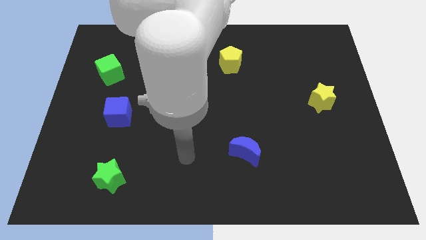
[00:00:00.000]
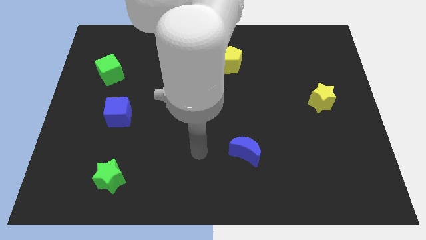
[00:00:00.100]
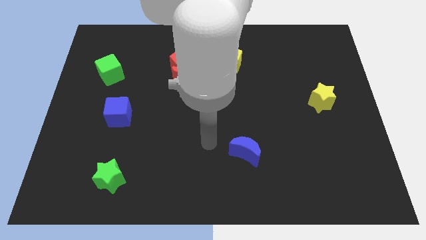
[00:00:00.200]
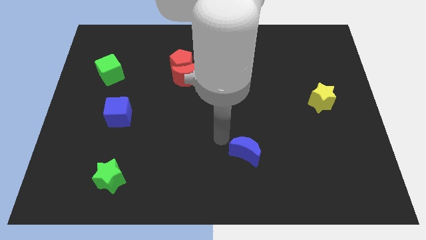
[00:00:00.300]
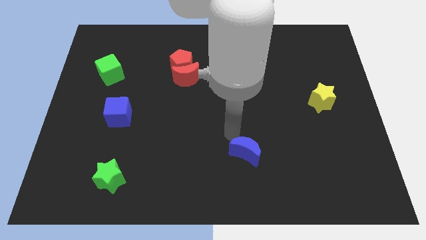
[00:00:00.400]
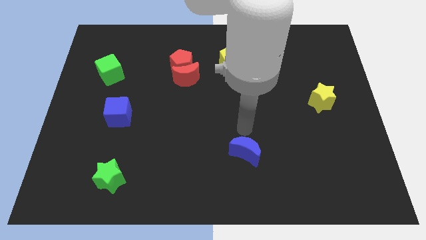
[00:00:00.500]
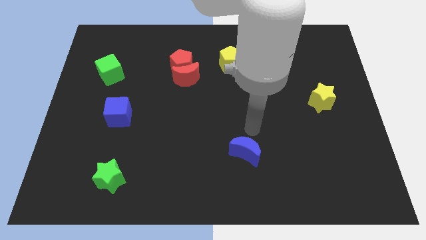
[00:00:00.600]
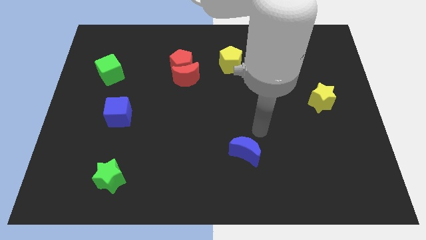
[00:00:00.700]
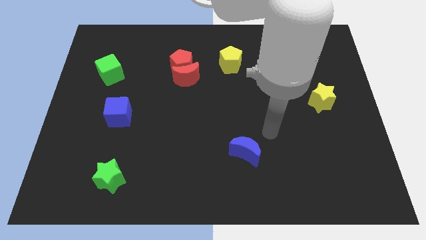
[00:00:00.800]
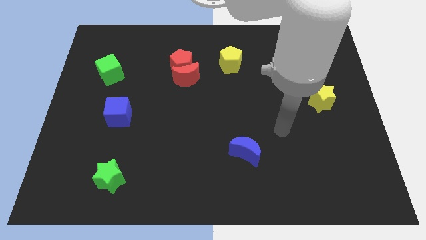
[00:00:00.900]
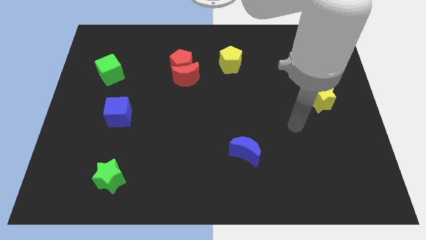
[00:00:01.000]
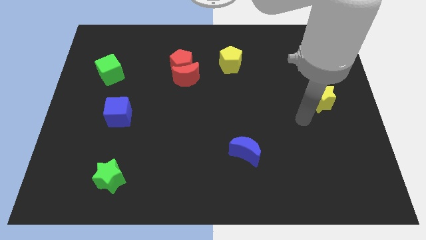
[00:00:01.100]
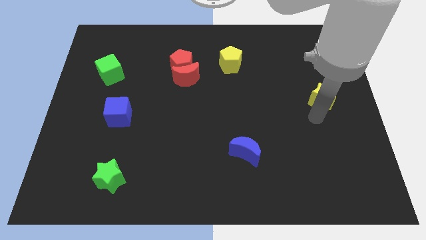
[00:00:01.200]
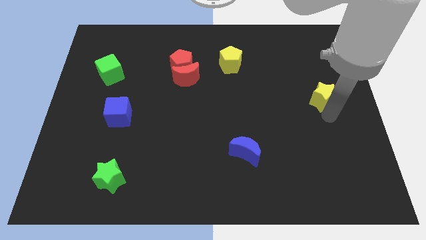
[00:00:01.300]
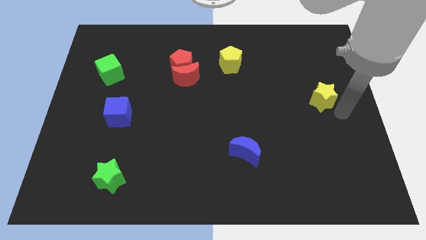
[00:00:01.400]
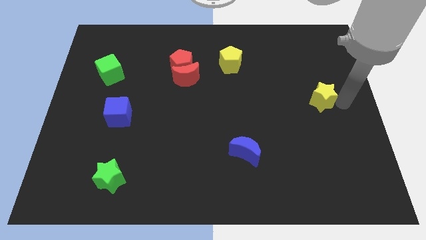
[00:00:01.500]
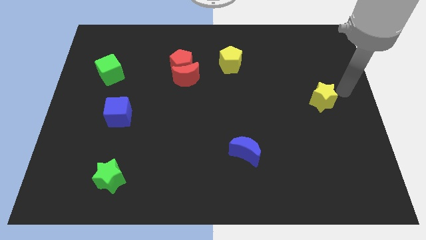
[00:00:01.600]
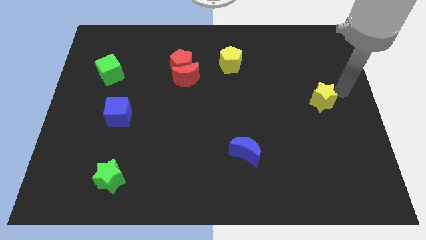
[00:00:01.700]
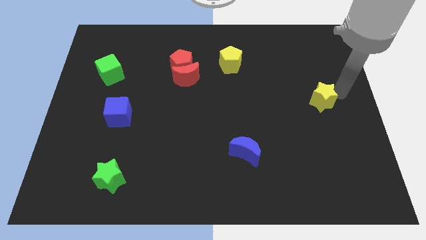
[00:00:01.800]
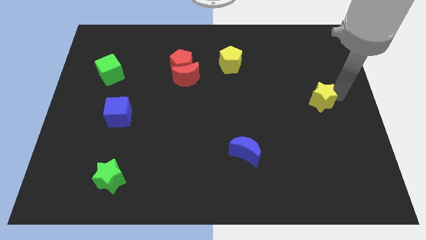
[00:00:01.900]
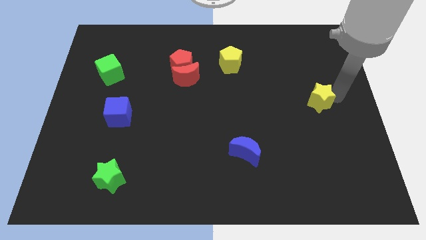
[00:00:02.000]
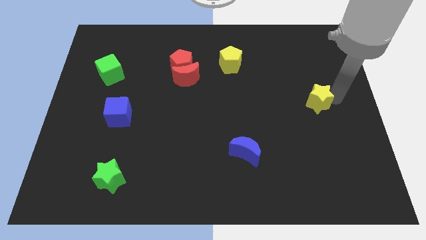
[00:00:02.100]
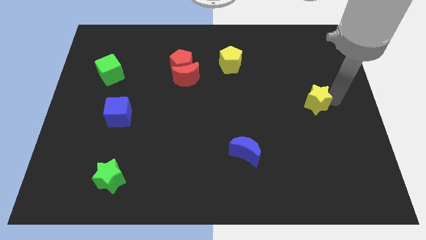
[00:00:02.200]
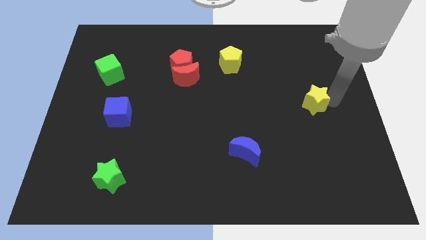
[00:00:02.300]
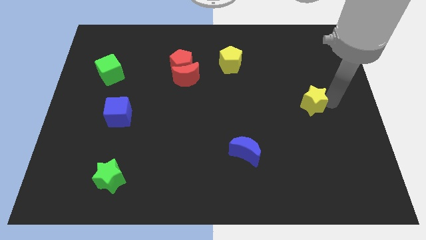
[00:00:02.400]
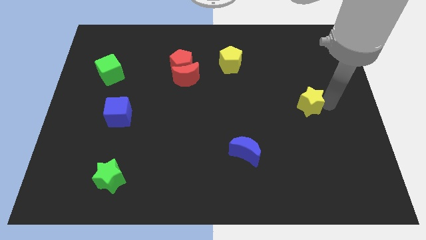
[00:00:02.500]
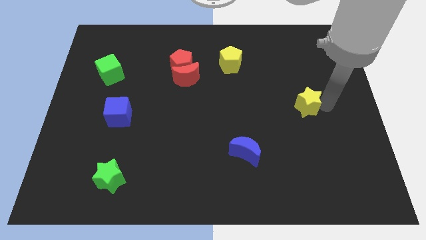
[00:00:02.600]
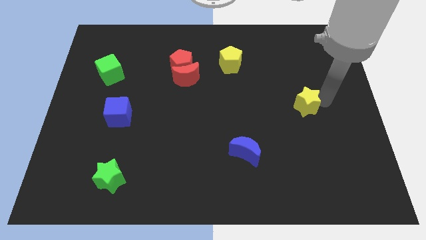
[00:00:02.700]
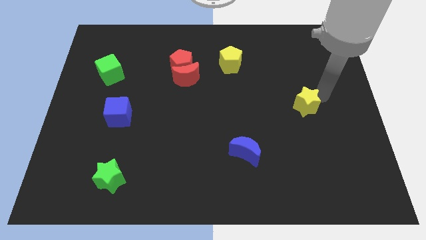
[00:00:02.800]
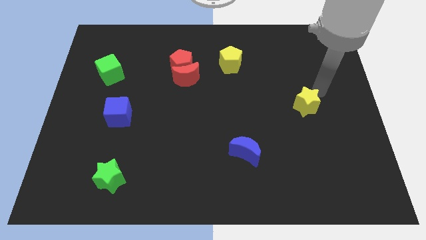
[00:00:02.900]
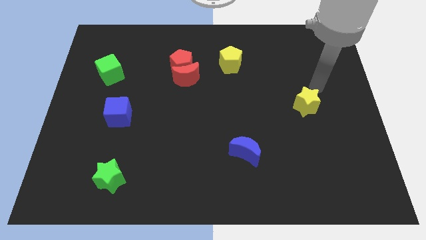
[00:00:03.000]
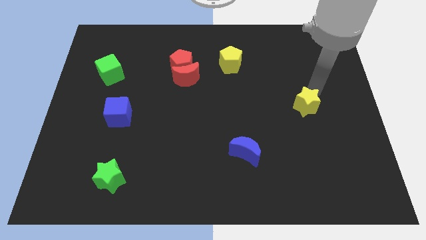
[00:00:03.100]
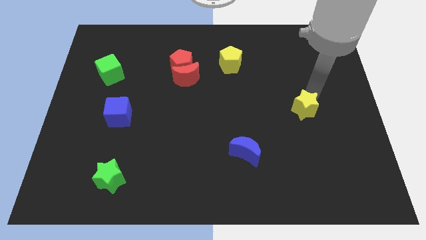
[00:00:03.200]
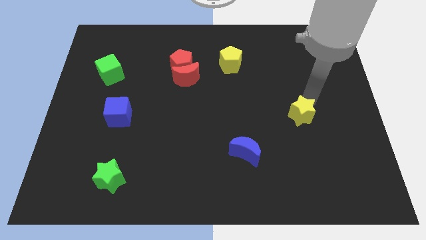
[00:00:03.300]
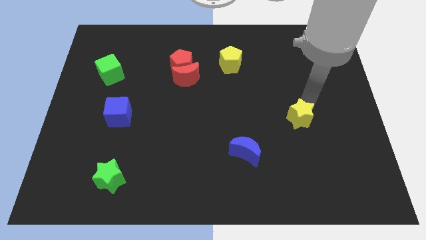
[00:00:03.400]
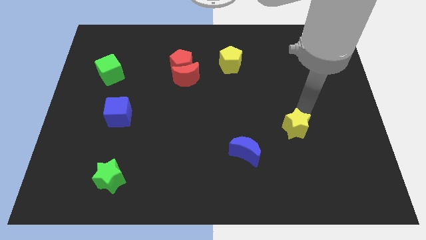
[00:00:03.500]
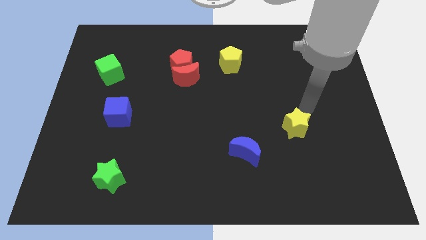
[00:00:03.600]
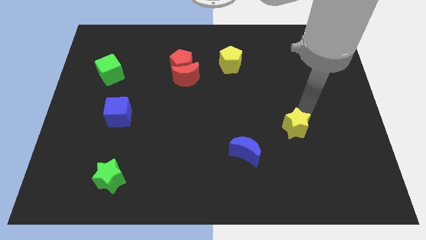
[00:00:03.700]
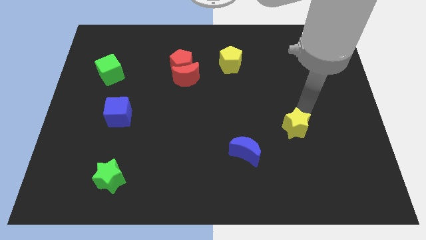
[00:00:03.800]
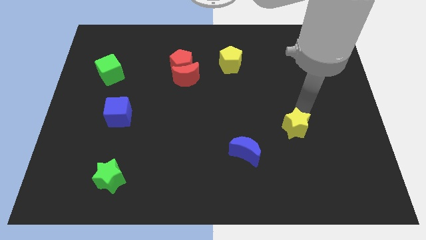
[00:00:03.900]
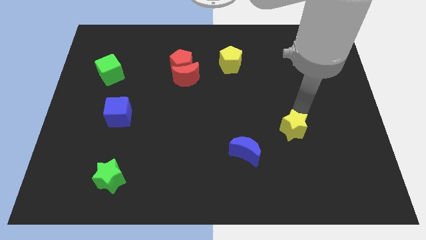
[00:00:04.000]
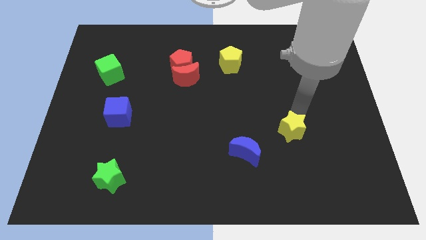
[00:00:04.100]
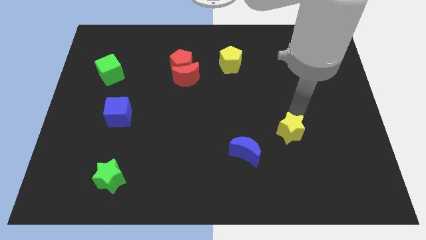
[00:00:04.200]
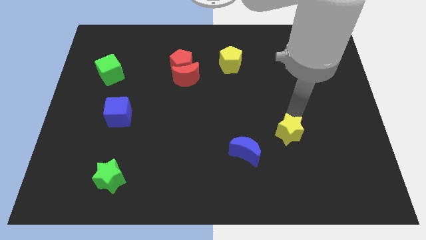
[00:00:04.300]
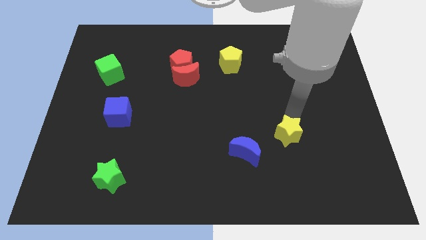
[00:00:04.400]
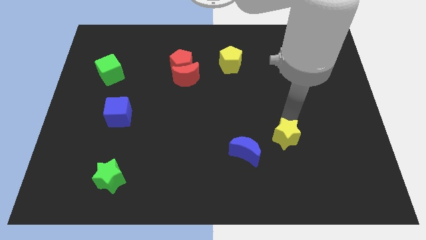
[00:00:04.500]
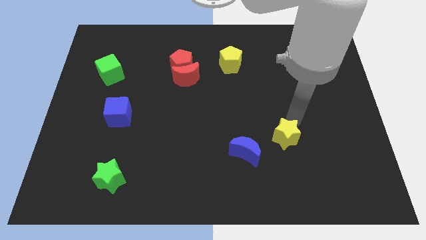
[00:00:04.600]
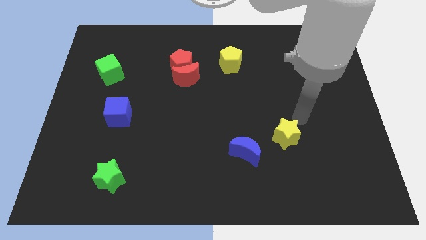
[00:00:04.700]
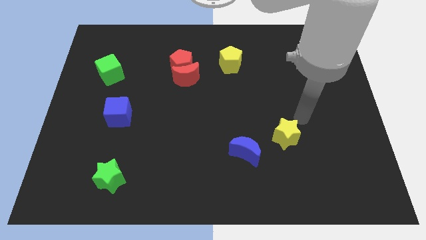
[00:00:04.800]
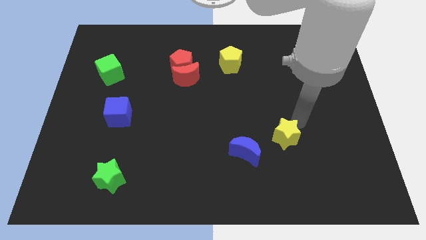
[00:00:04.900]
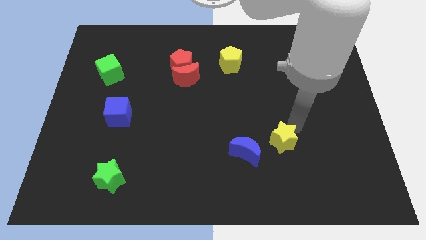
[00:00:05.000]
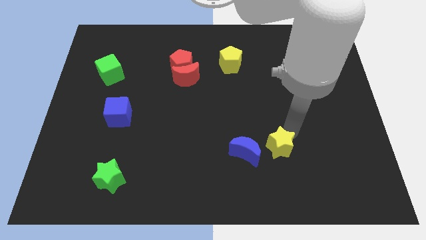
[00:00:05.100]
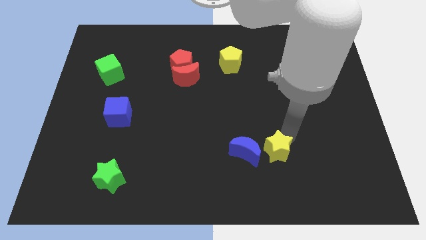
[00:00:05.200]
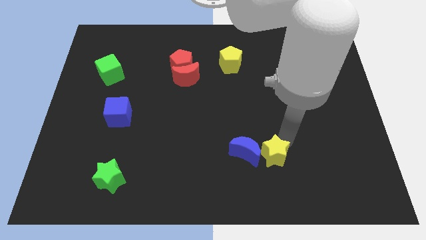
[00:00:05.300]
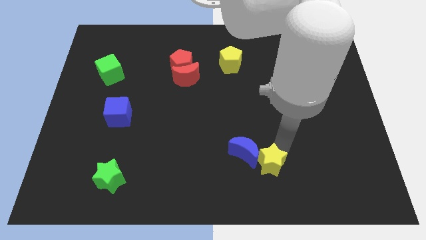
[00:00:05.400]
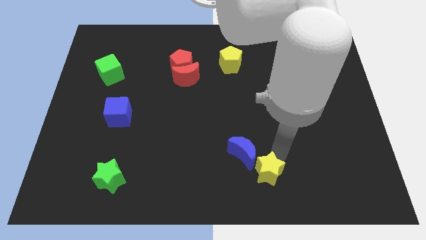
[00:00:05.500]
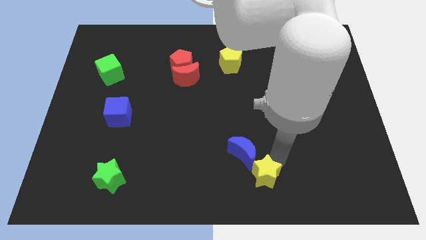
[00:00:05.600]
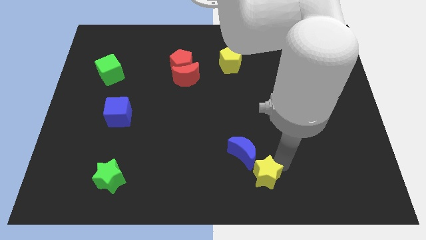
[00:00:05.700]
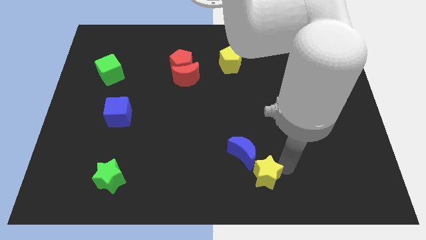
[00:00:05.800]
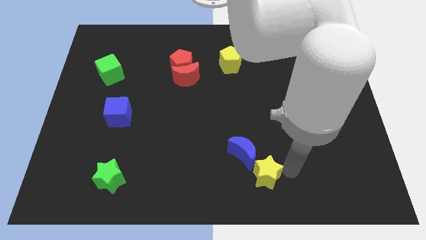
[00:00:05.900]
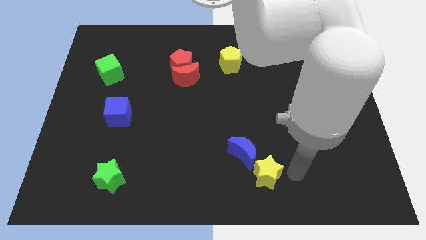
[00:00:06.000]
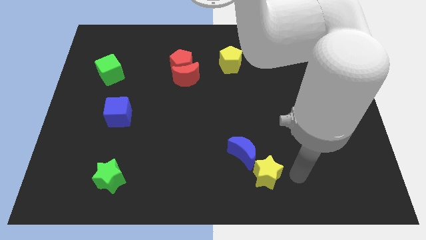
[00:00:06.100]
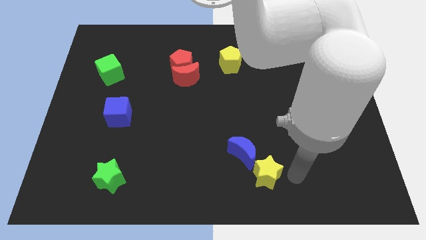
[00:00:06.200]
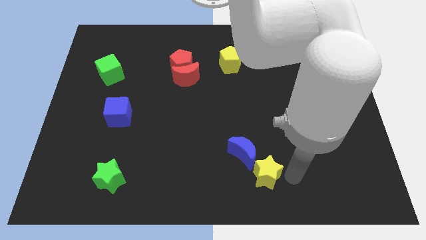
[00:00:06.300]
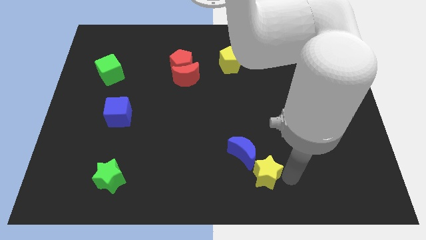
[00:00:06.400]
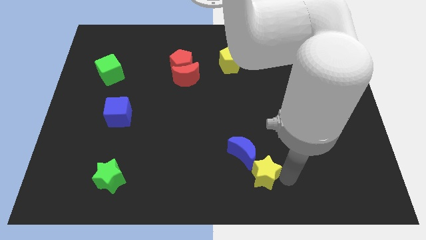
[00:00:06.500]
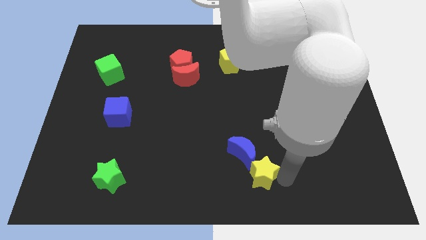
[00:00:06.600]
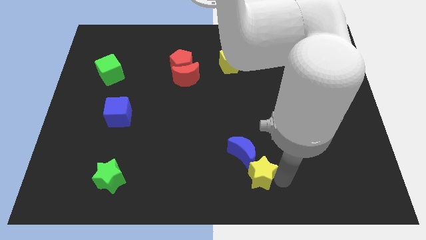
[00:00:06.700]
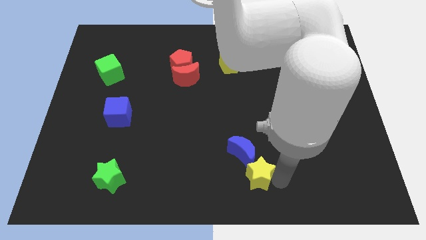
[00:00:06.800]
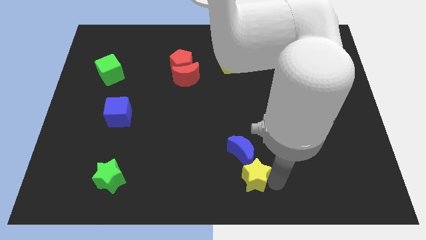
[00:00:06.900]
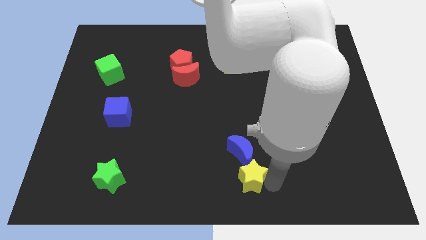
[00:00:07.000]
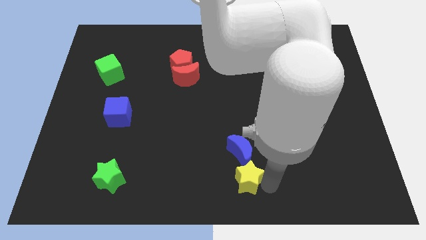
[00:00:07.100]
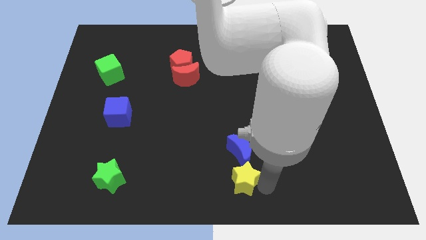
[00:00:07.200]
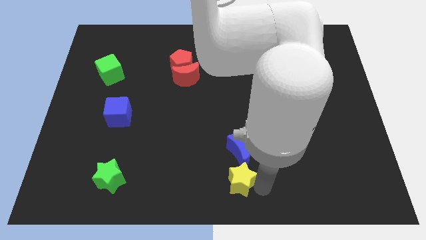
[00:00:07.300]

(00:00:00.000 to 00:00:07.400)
put the yellow star to the bottom left side of the blue moon
